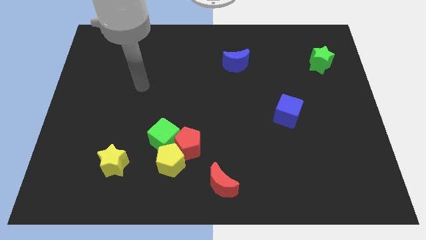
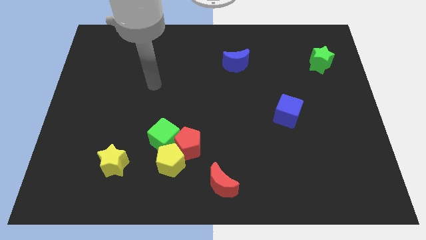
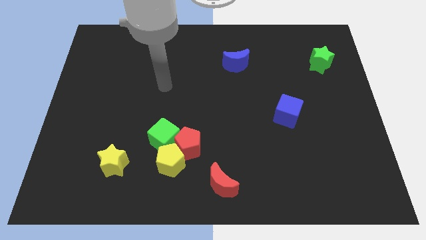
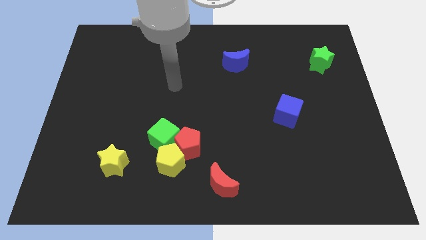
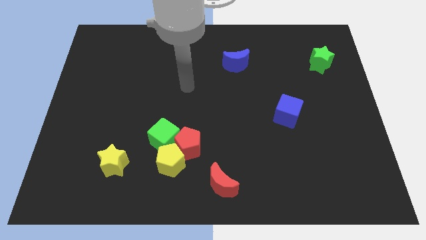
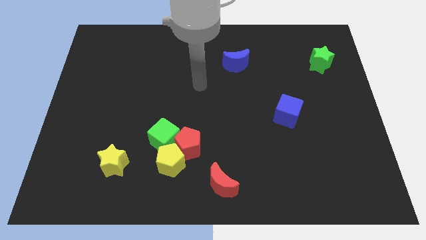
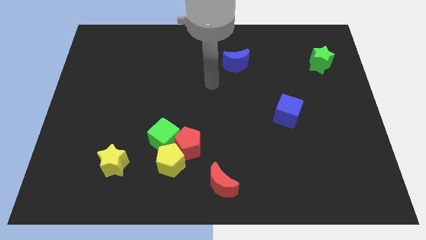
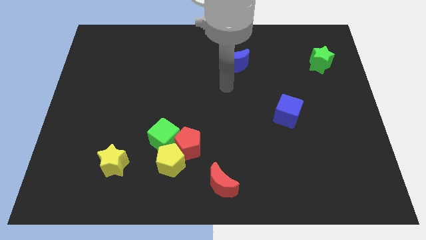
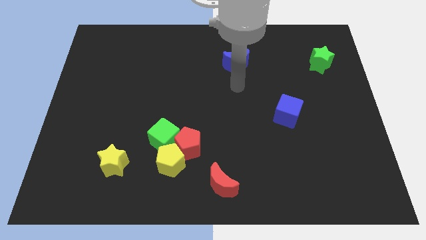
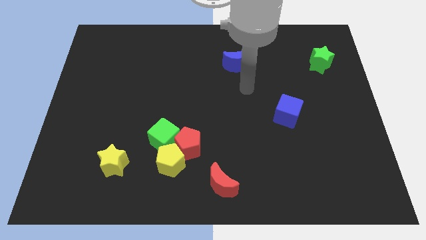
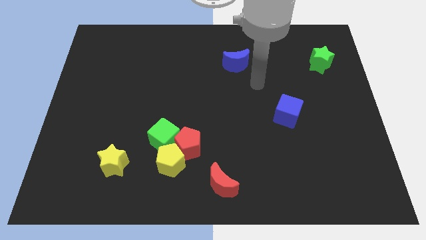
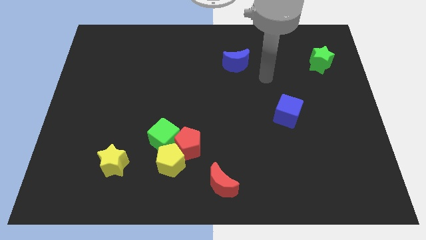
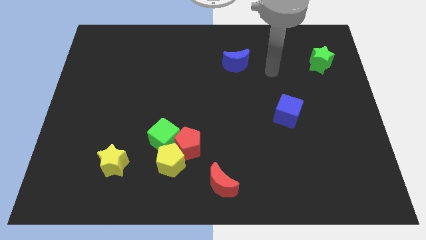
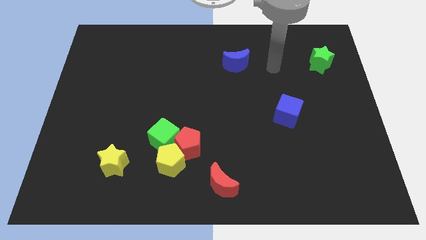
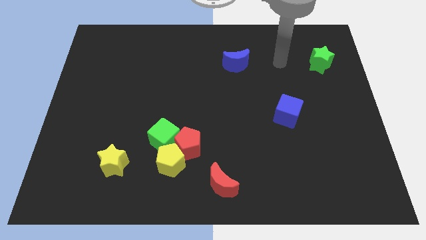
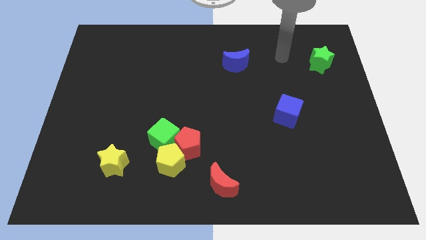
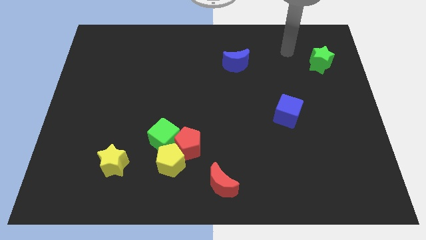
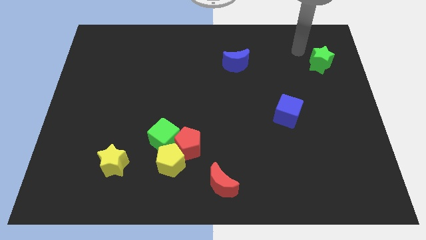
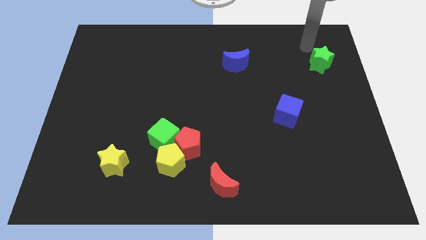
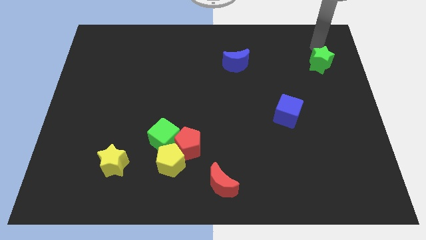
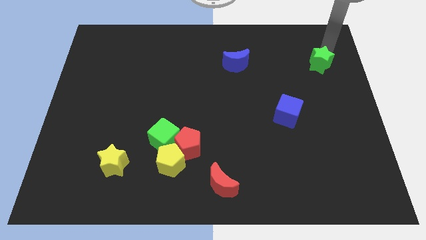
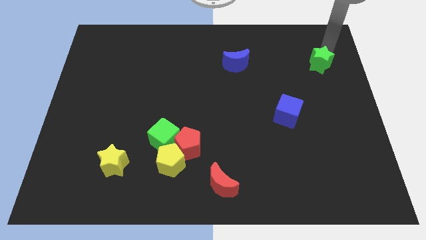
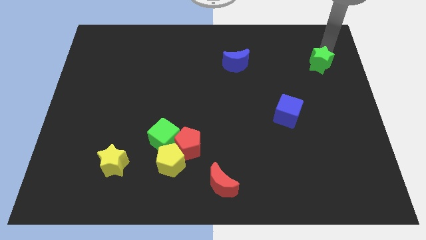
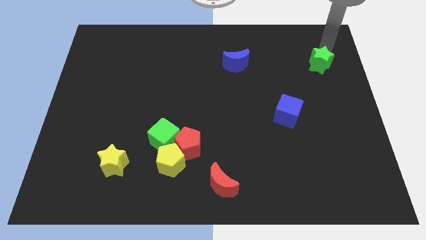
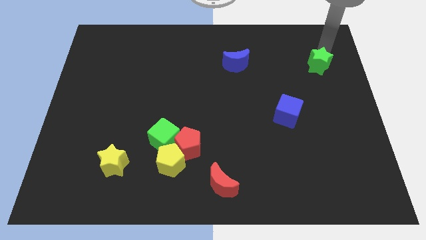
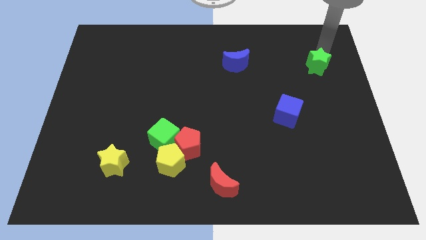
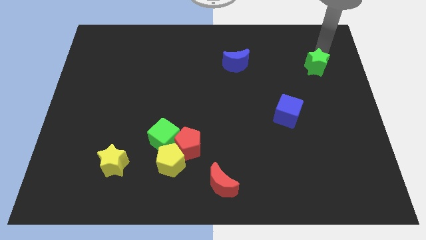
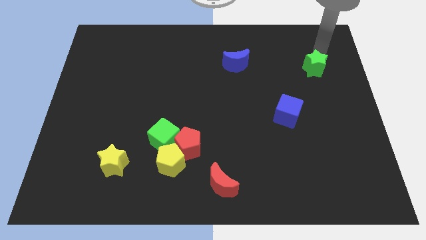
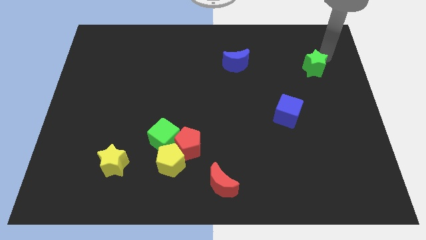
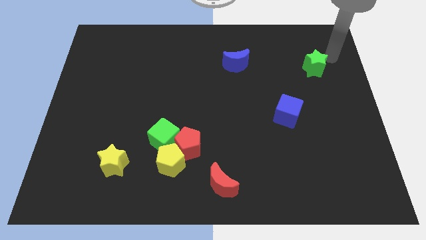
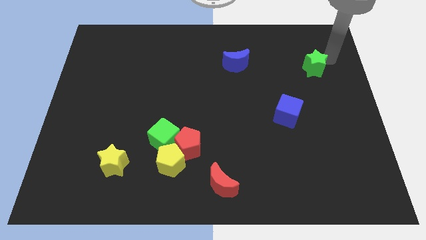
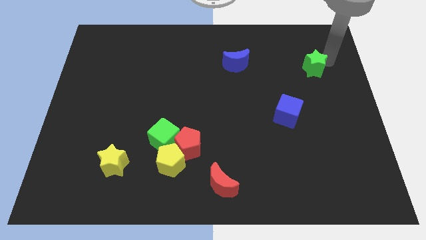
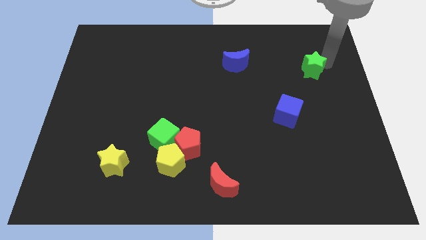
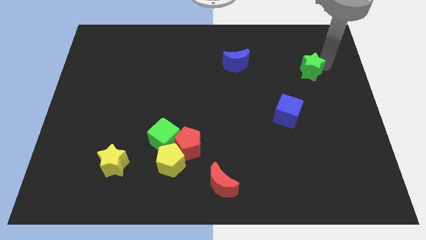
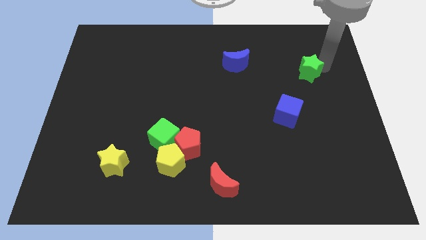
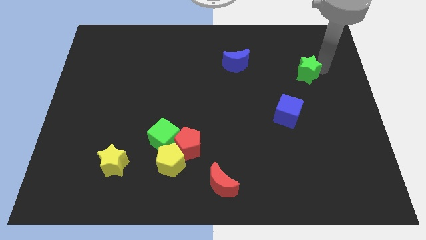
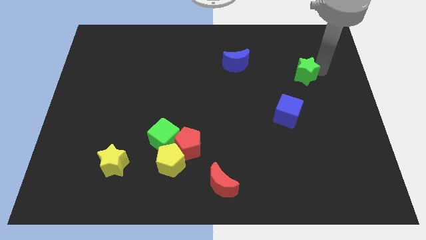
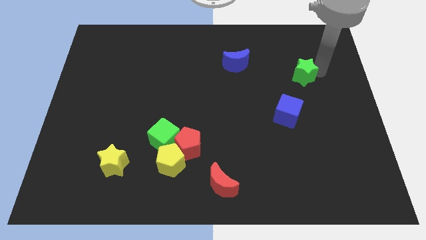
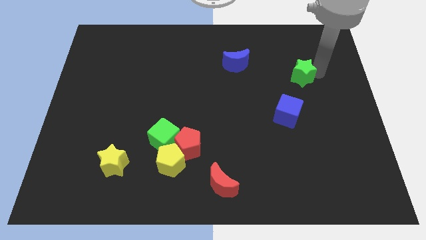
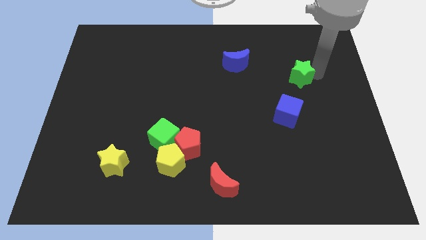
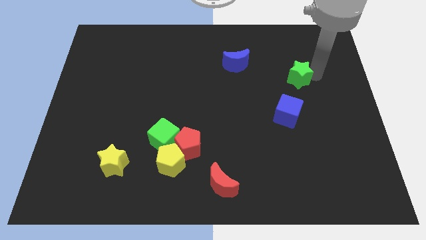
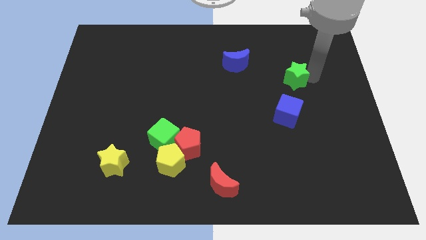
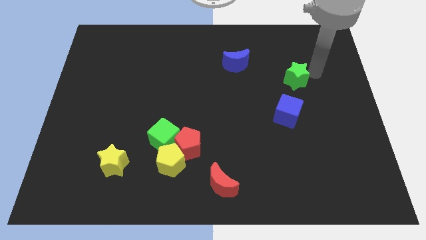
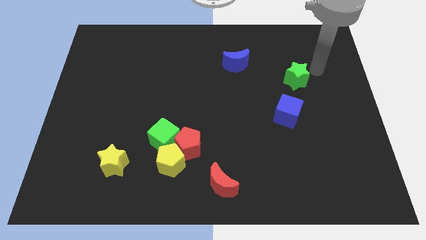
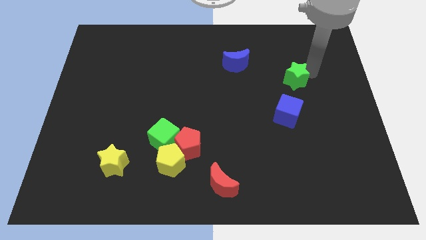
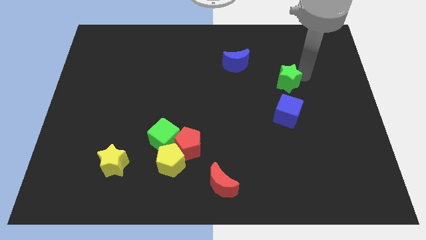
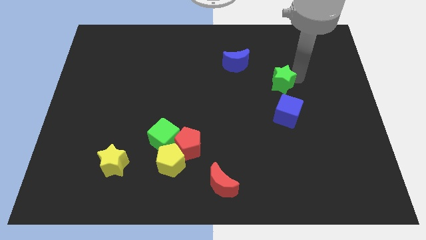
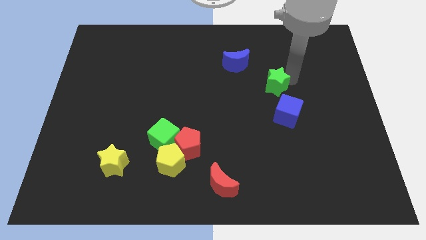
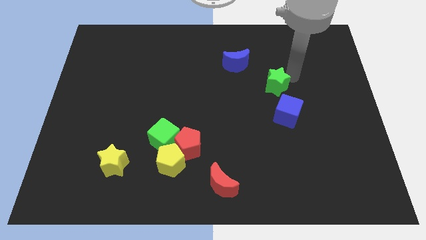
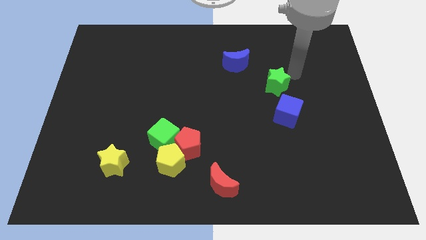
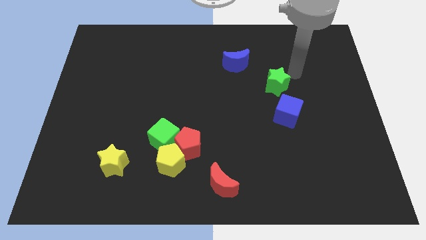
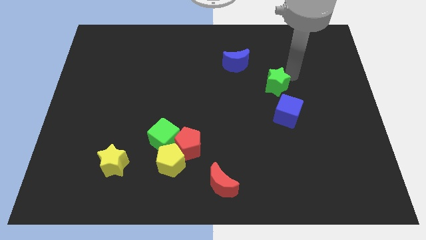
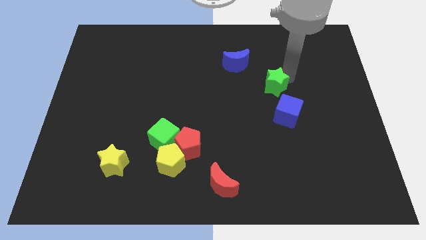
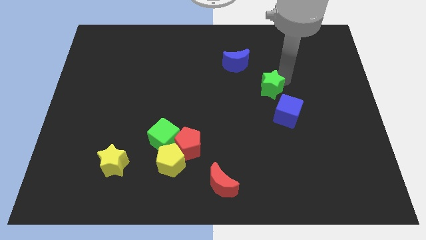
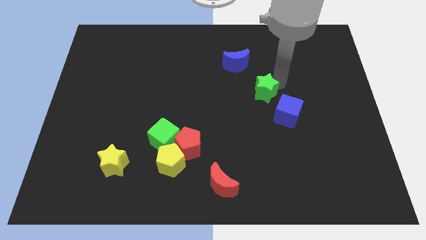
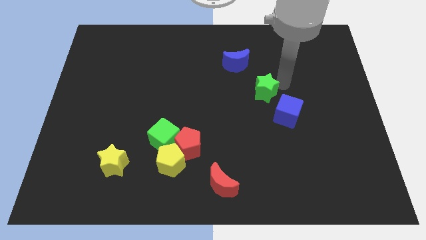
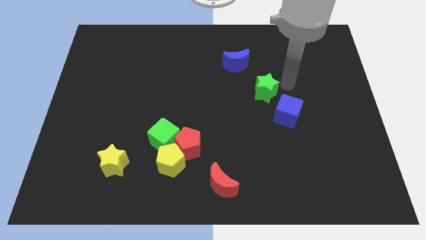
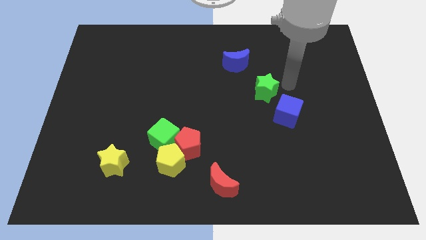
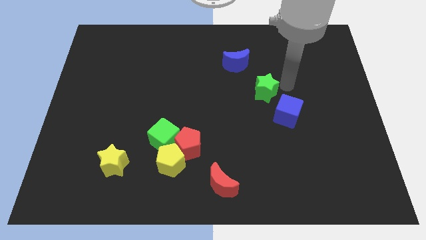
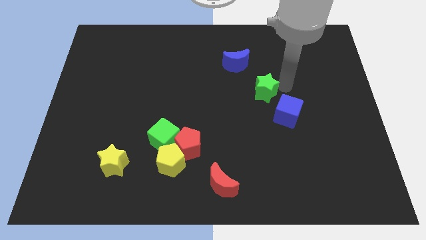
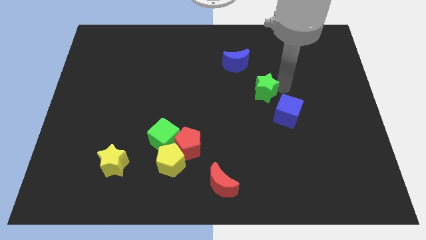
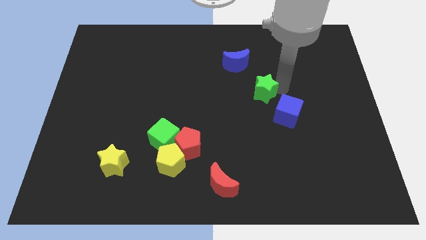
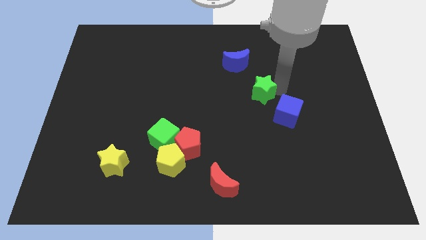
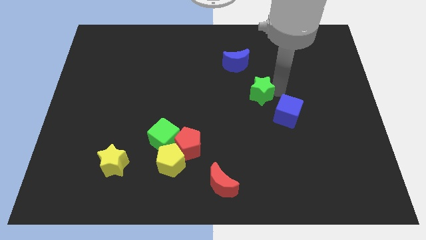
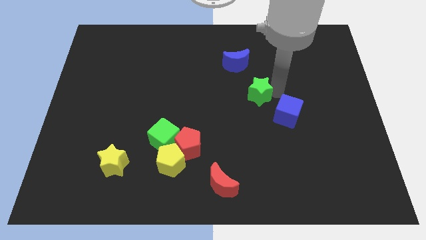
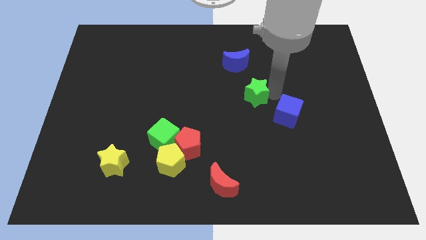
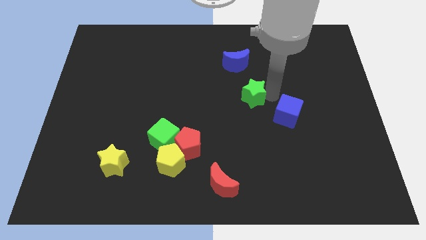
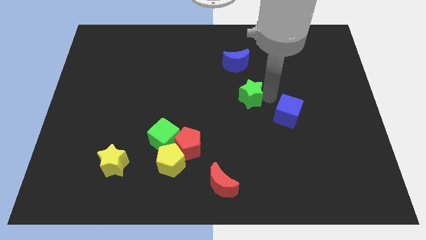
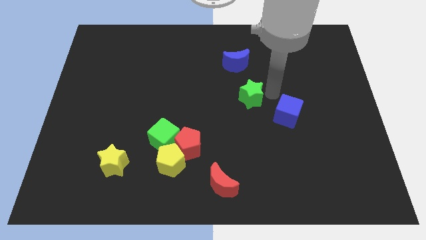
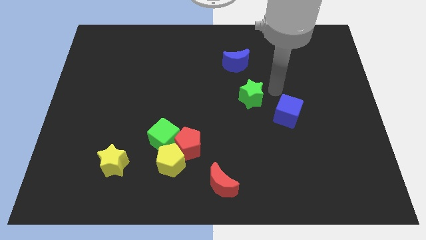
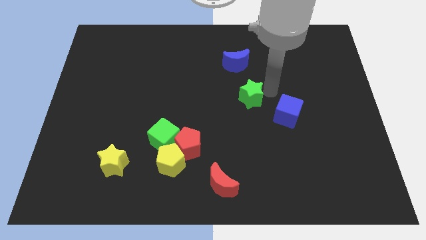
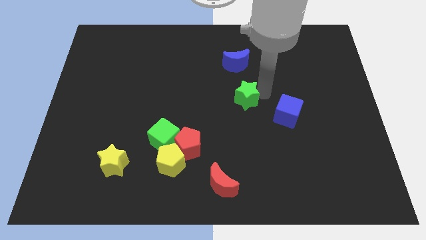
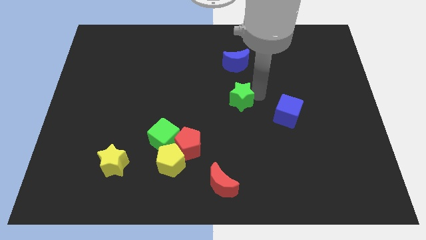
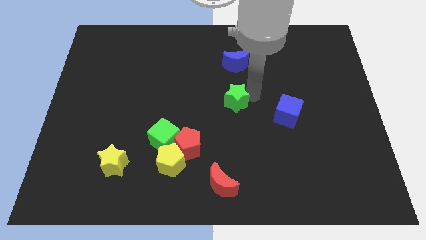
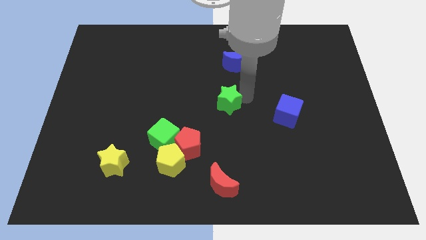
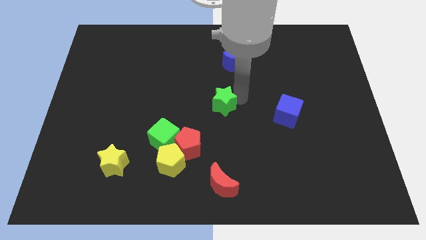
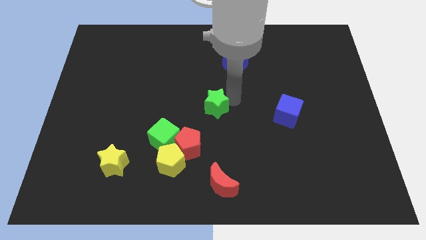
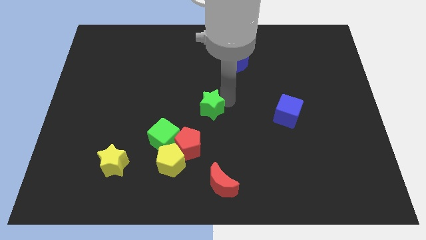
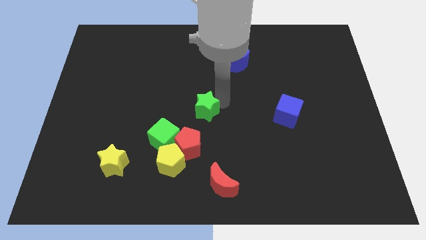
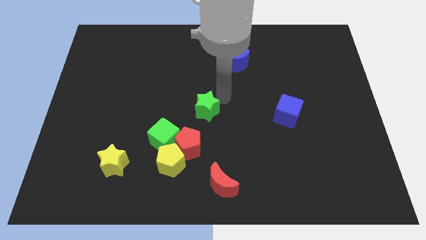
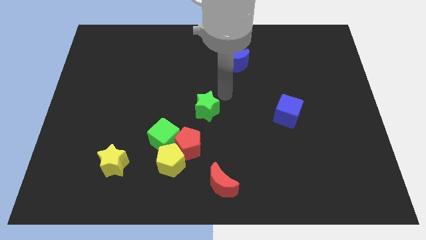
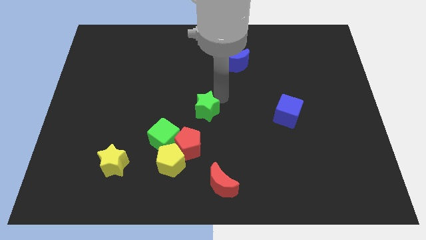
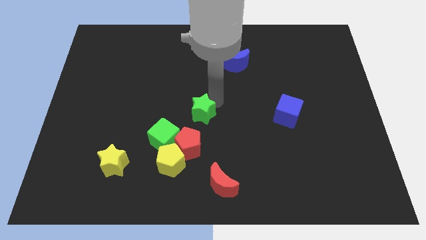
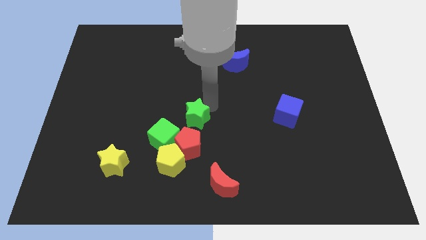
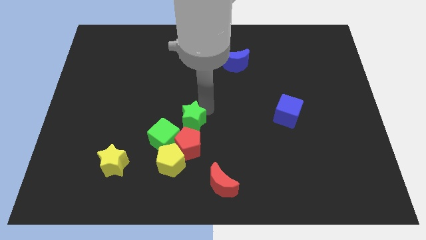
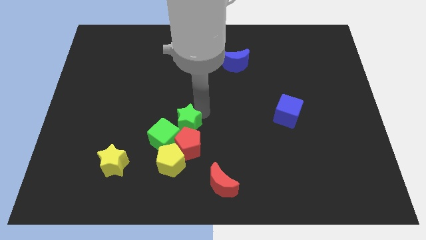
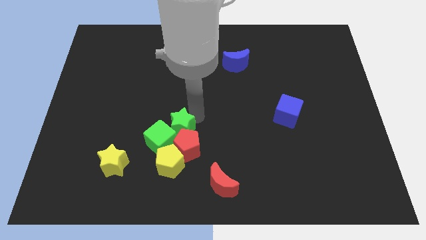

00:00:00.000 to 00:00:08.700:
put the green star next to the green cube
